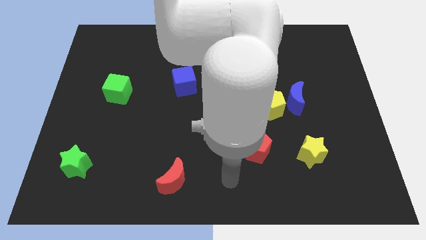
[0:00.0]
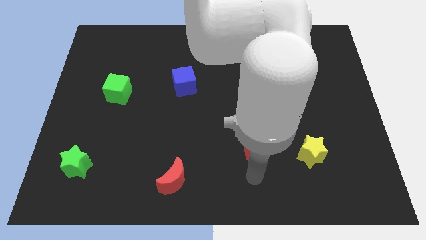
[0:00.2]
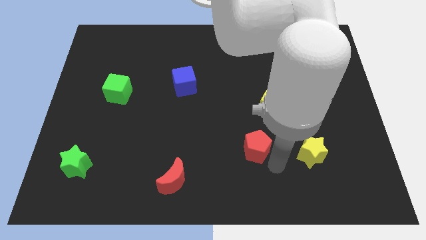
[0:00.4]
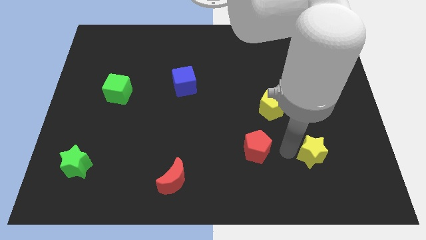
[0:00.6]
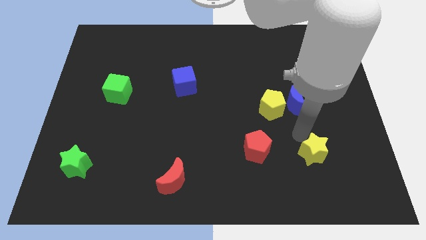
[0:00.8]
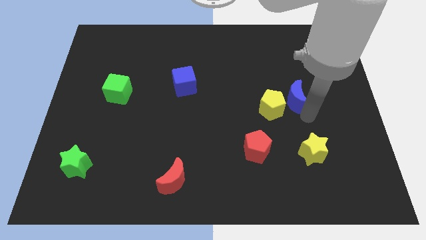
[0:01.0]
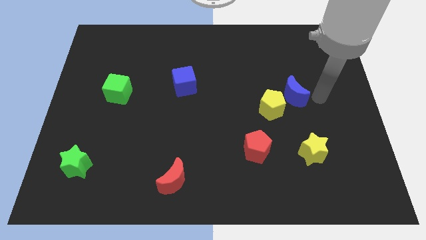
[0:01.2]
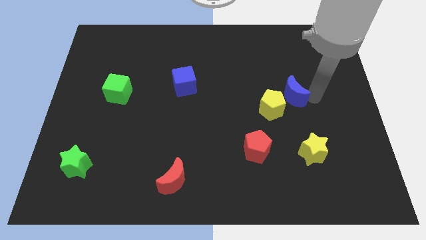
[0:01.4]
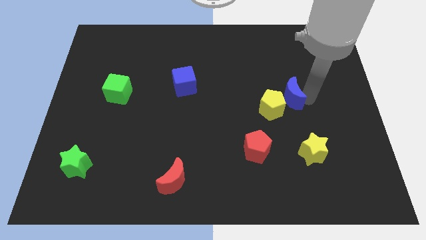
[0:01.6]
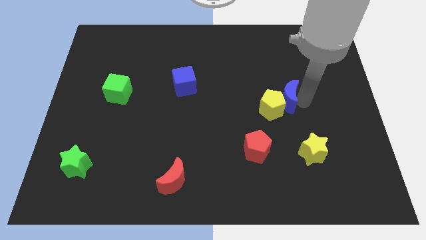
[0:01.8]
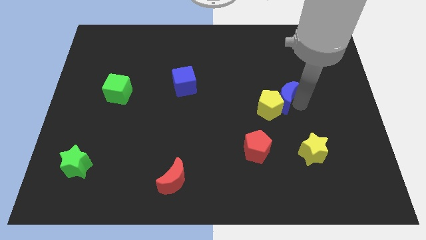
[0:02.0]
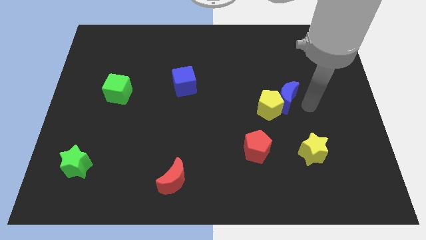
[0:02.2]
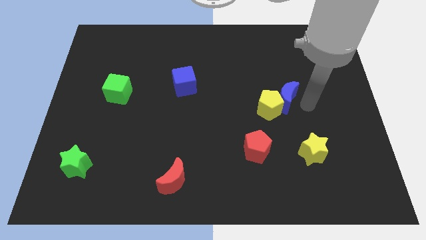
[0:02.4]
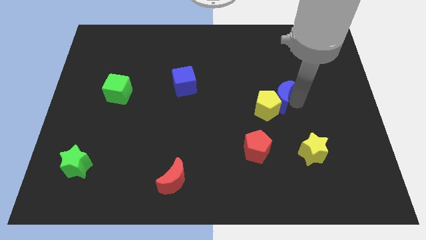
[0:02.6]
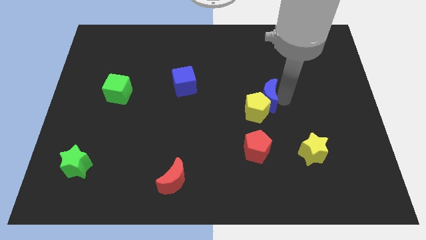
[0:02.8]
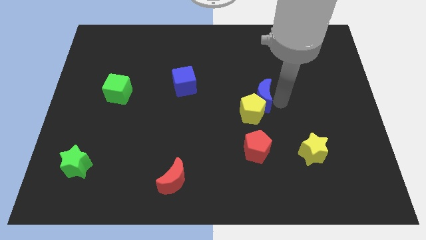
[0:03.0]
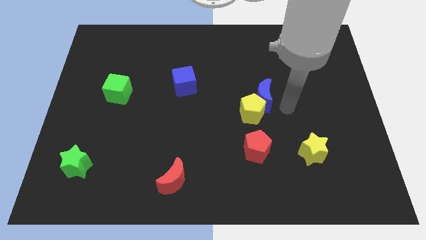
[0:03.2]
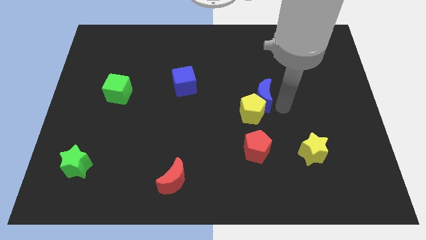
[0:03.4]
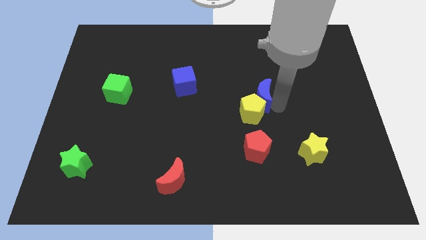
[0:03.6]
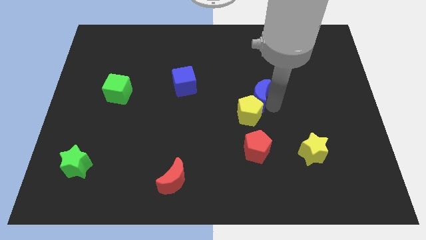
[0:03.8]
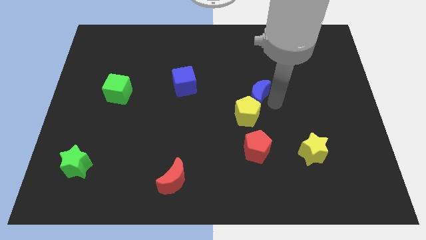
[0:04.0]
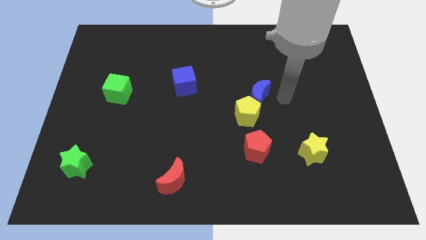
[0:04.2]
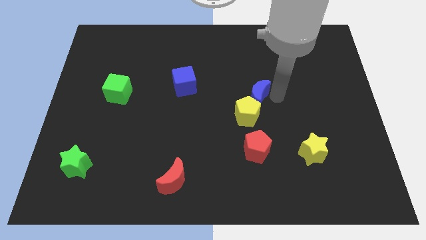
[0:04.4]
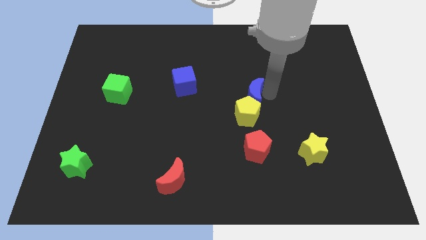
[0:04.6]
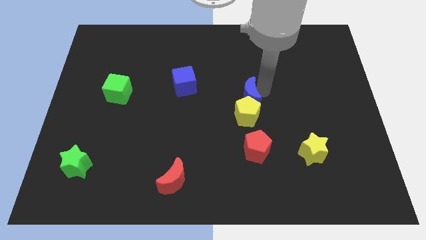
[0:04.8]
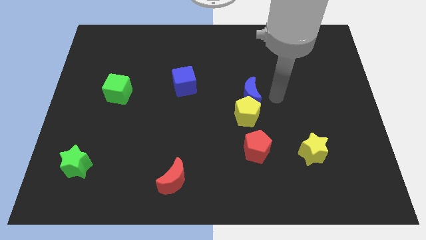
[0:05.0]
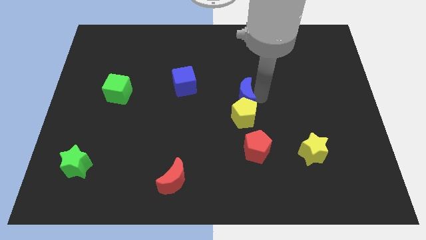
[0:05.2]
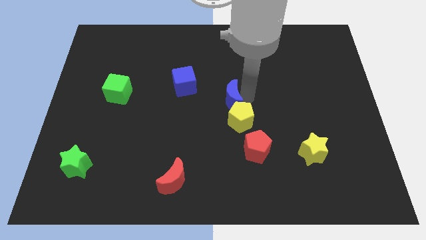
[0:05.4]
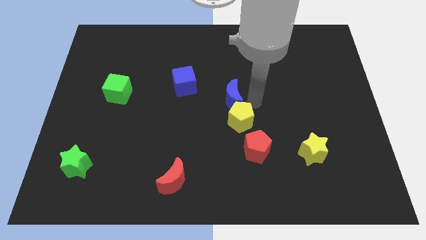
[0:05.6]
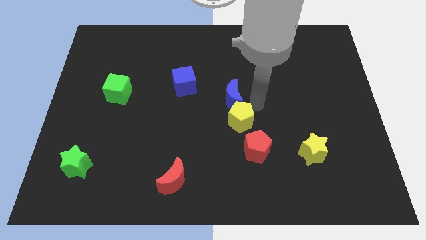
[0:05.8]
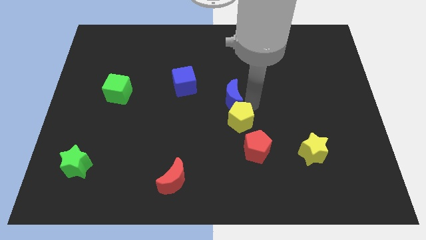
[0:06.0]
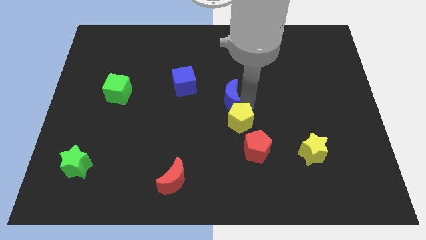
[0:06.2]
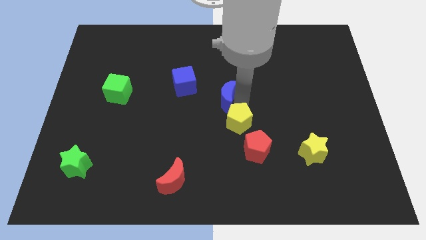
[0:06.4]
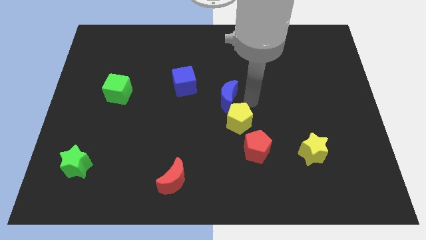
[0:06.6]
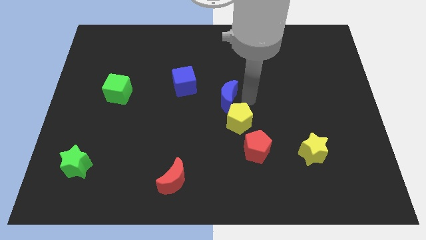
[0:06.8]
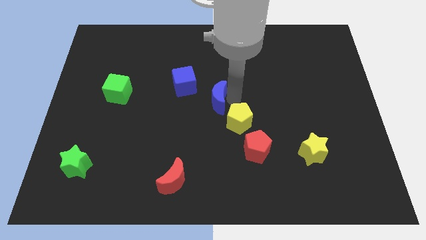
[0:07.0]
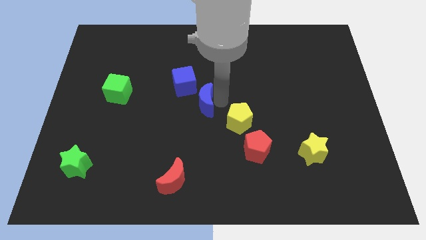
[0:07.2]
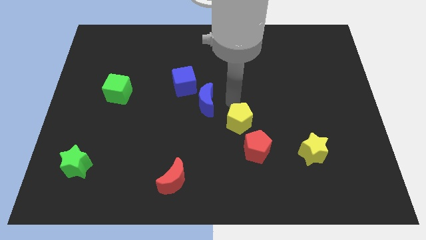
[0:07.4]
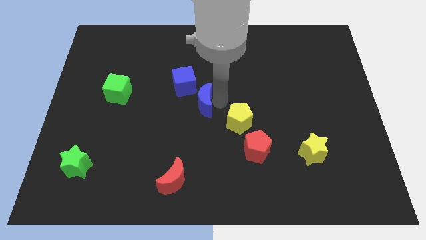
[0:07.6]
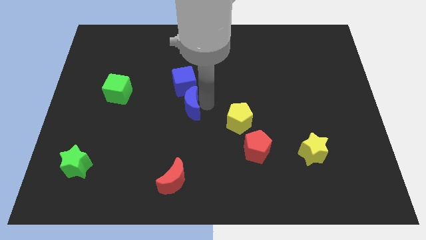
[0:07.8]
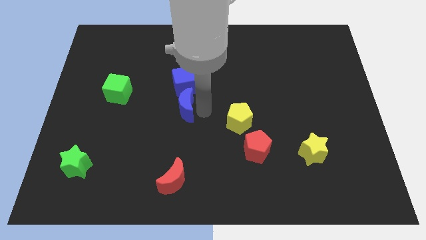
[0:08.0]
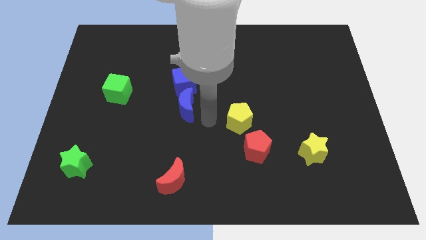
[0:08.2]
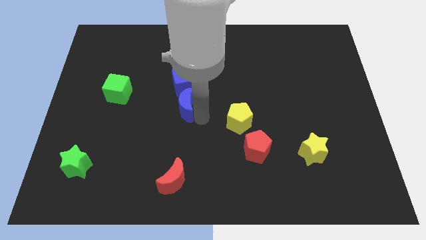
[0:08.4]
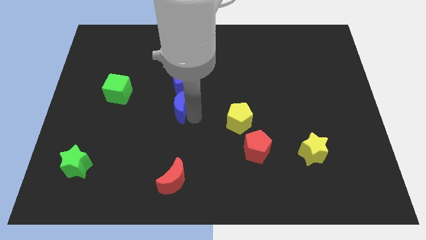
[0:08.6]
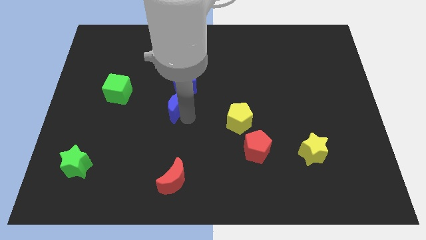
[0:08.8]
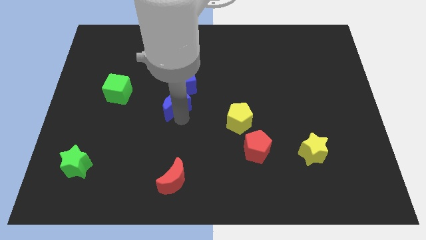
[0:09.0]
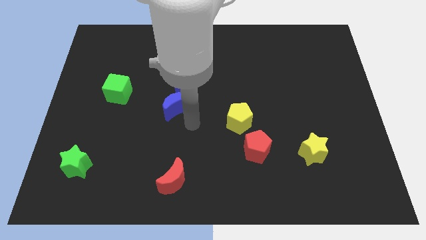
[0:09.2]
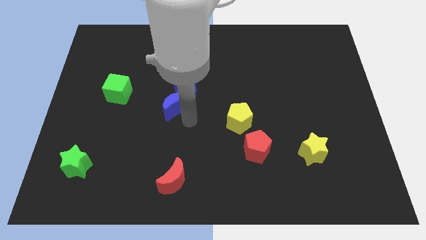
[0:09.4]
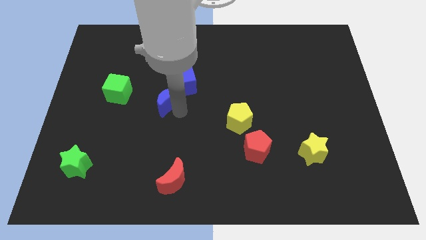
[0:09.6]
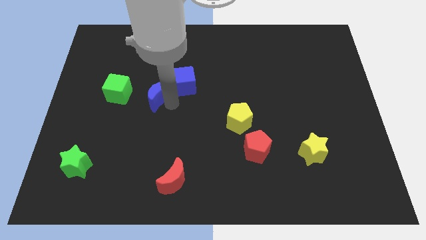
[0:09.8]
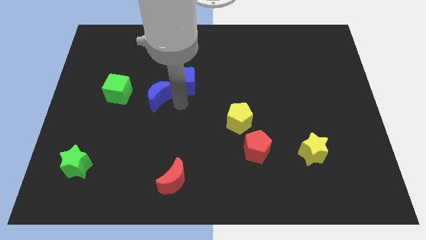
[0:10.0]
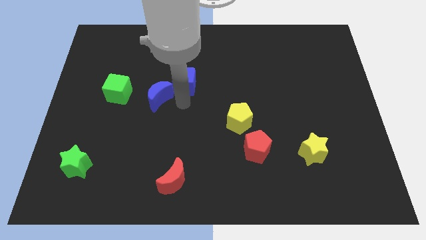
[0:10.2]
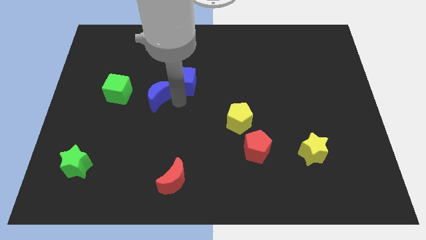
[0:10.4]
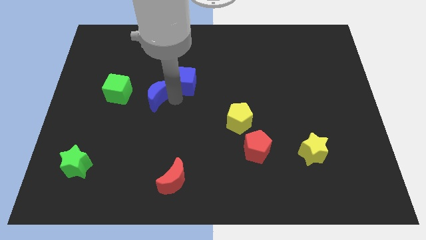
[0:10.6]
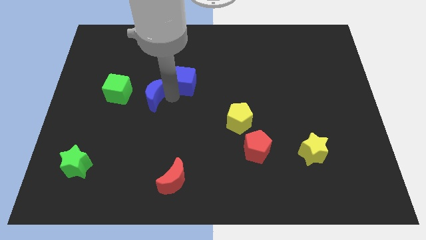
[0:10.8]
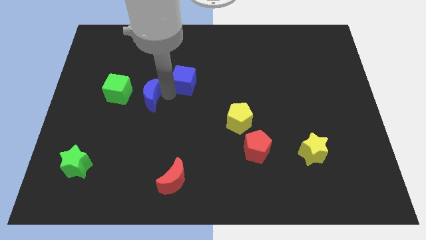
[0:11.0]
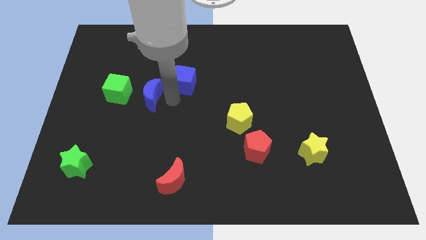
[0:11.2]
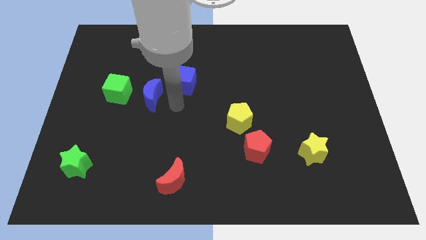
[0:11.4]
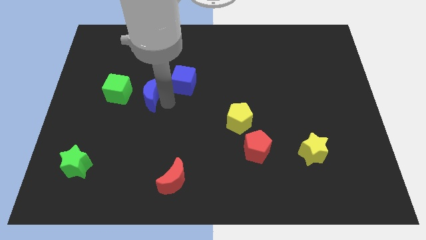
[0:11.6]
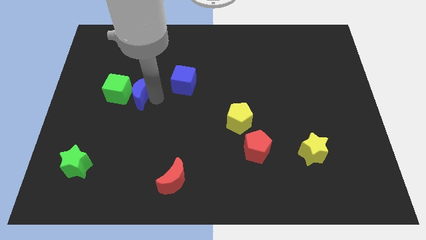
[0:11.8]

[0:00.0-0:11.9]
slide the blue moon to the green cube

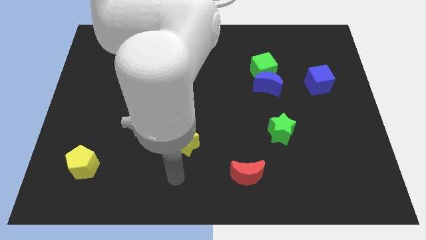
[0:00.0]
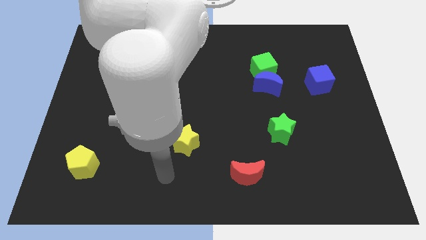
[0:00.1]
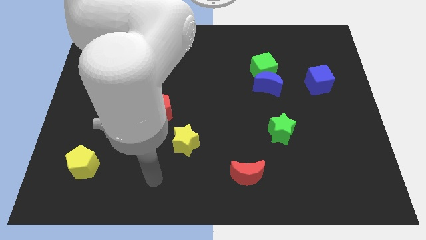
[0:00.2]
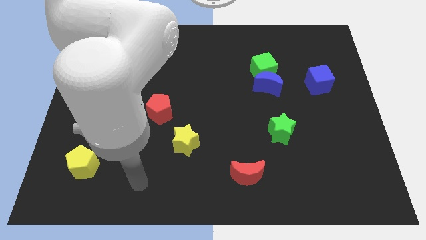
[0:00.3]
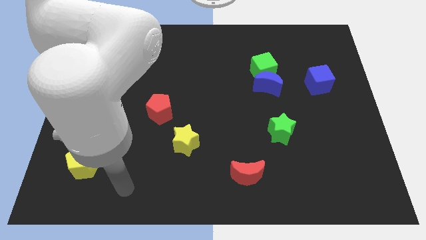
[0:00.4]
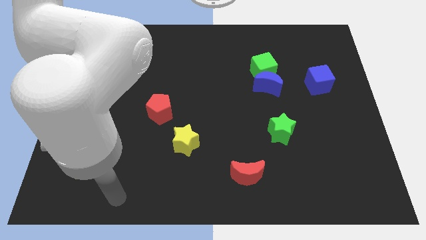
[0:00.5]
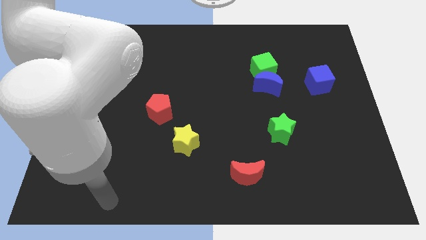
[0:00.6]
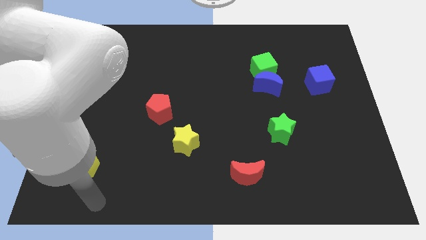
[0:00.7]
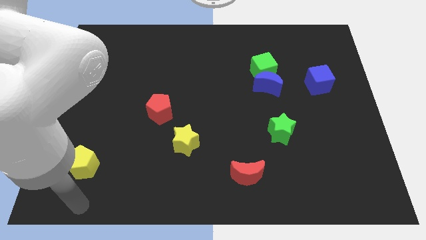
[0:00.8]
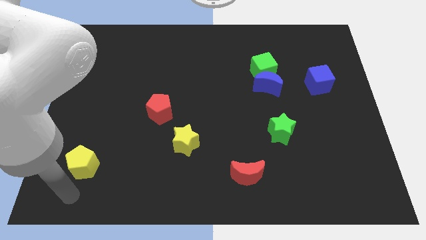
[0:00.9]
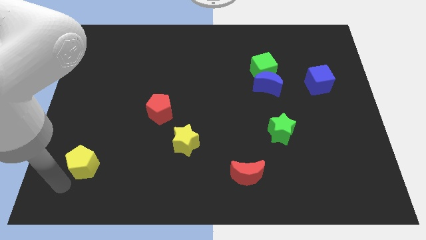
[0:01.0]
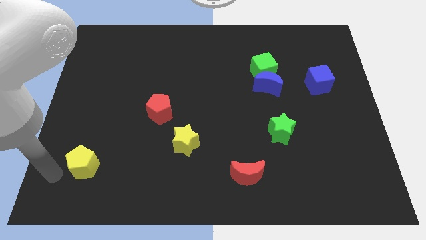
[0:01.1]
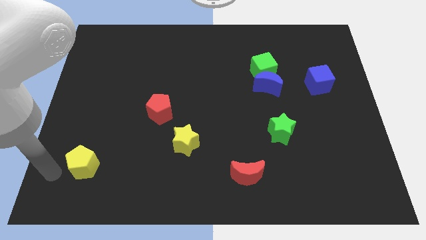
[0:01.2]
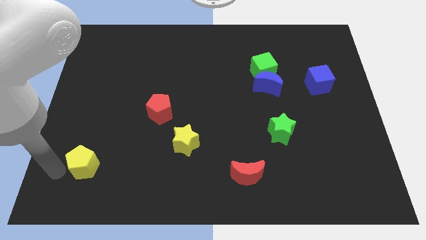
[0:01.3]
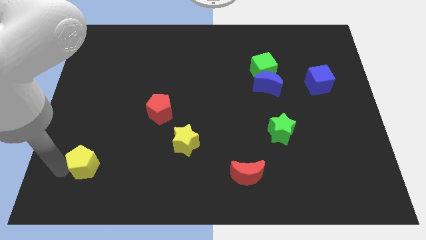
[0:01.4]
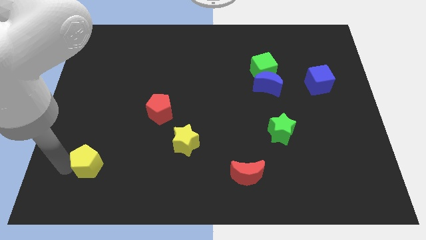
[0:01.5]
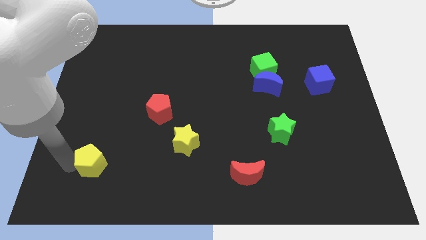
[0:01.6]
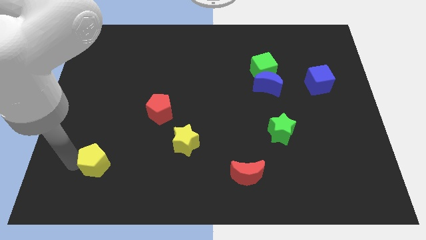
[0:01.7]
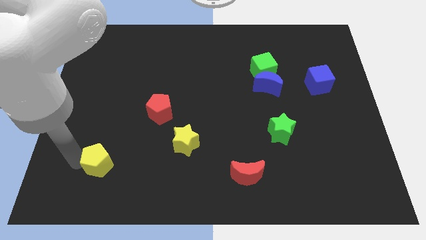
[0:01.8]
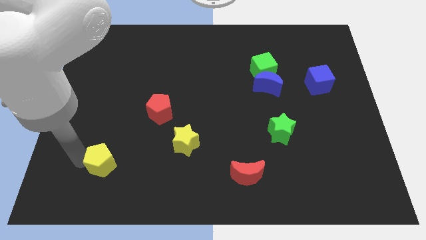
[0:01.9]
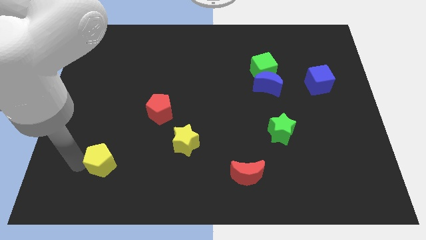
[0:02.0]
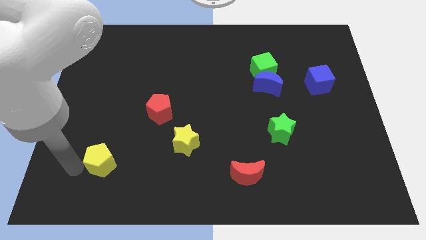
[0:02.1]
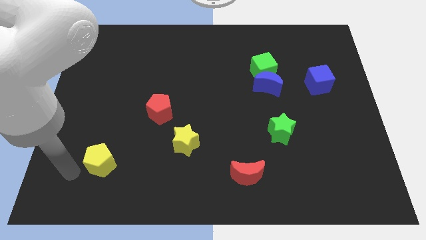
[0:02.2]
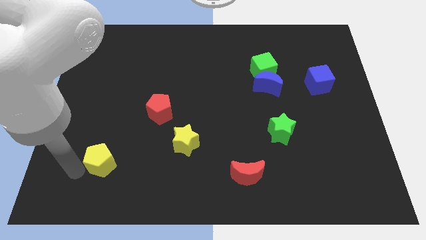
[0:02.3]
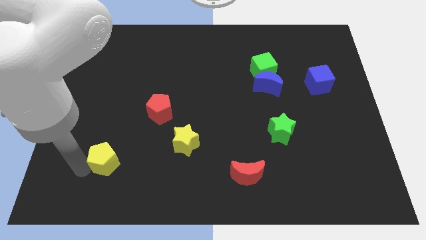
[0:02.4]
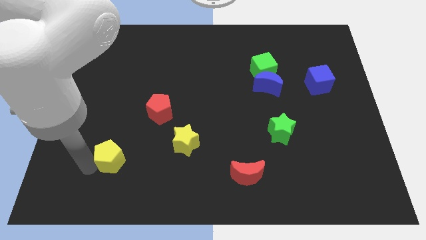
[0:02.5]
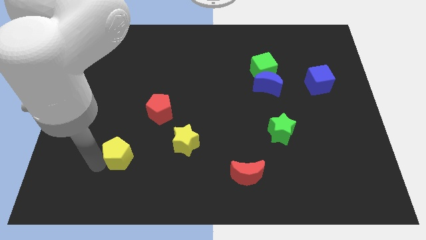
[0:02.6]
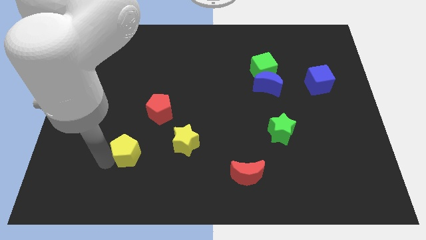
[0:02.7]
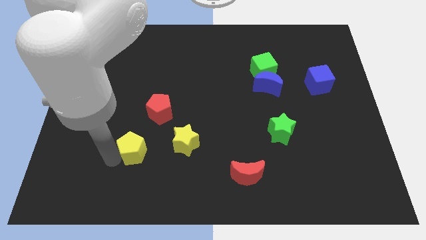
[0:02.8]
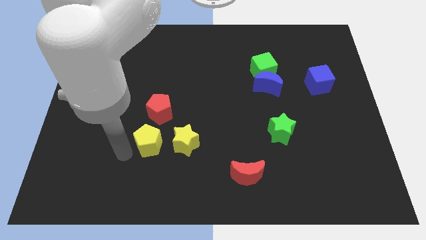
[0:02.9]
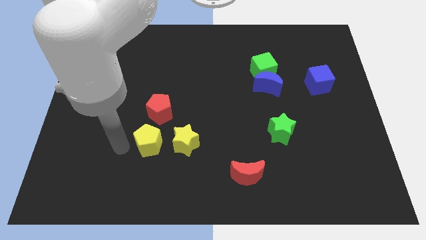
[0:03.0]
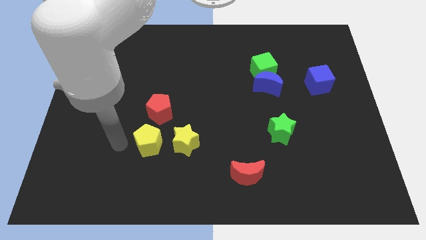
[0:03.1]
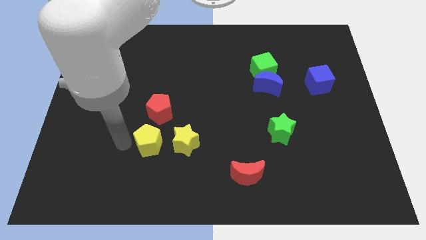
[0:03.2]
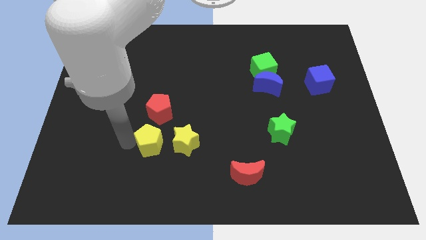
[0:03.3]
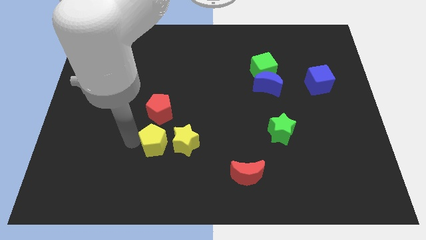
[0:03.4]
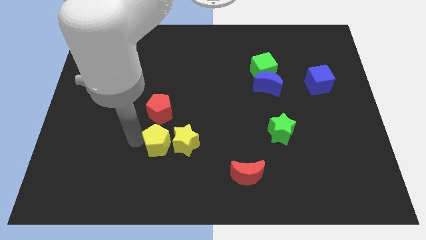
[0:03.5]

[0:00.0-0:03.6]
slide the yellow pentagon to the yellow star
